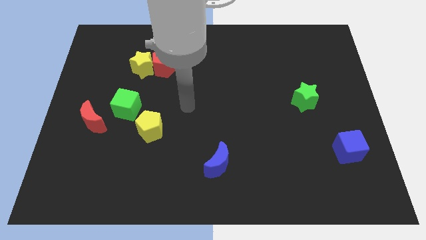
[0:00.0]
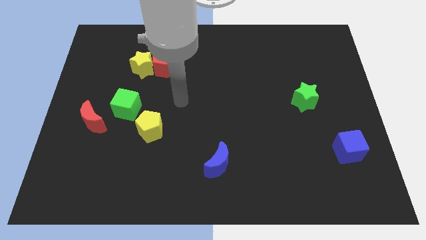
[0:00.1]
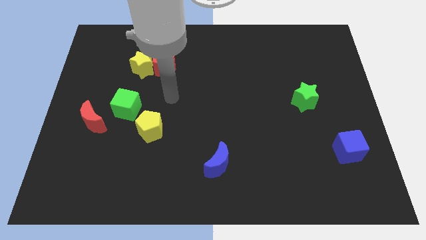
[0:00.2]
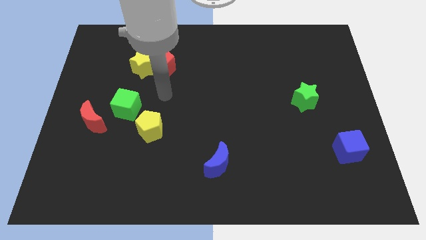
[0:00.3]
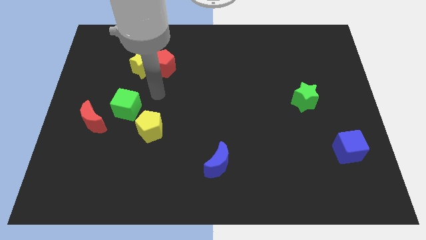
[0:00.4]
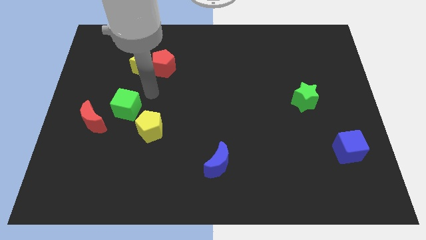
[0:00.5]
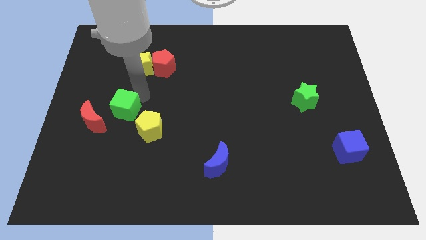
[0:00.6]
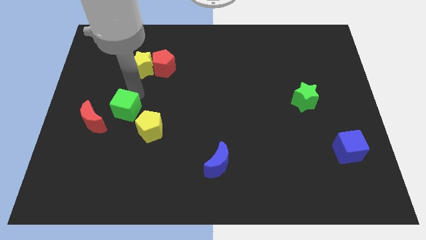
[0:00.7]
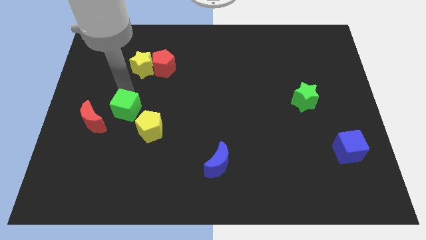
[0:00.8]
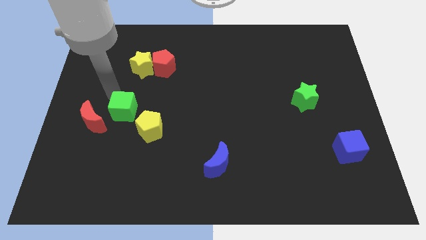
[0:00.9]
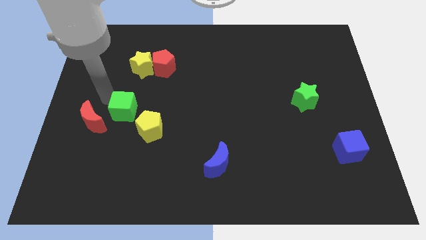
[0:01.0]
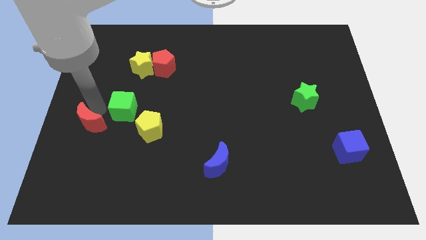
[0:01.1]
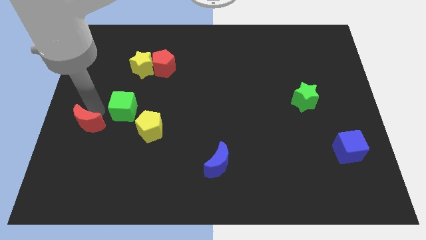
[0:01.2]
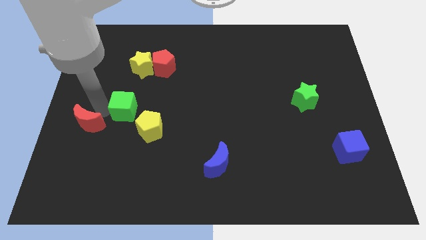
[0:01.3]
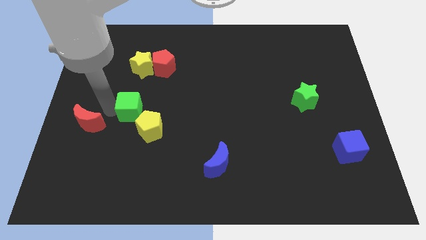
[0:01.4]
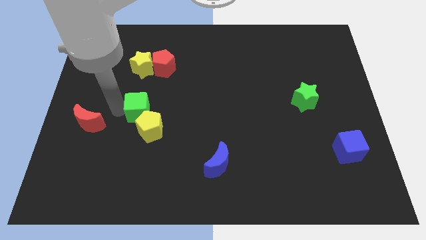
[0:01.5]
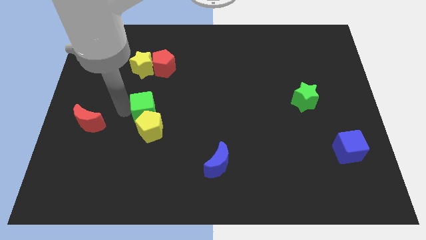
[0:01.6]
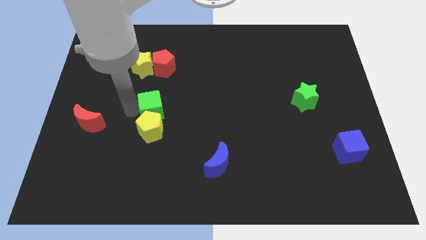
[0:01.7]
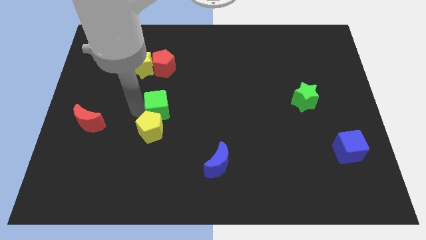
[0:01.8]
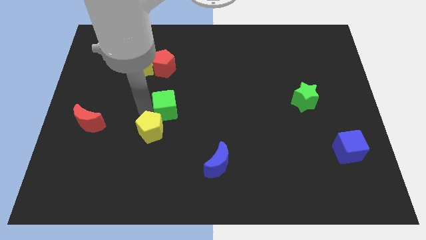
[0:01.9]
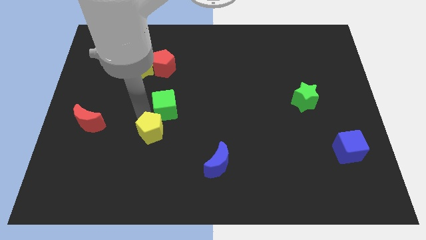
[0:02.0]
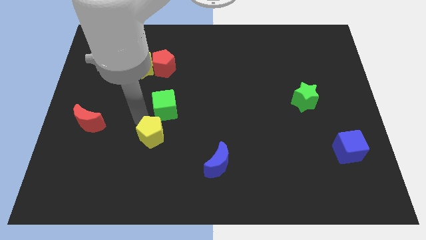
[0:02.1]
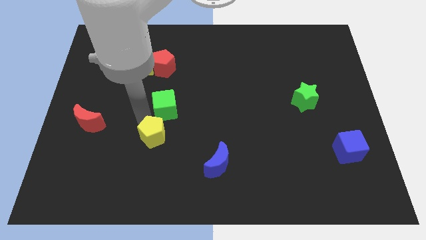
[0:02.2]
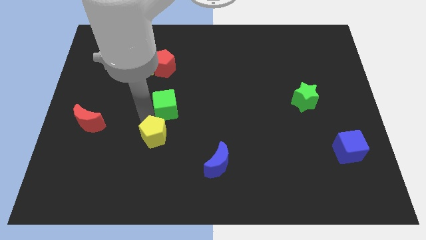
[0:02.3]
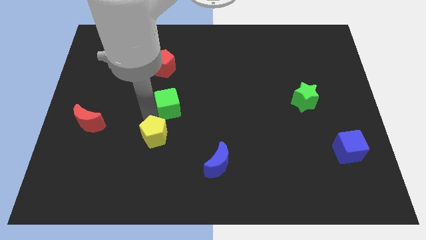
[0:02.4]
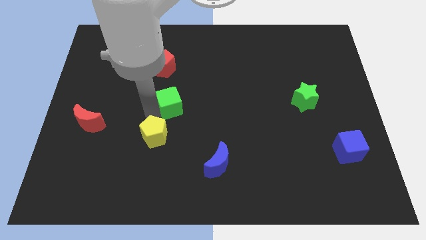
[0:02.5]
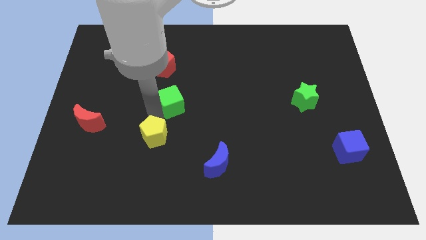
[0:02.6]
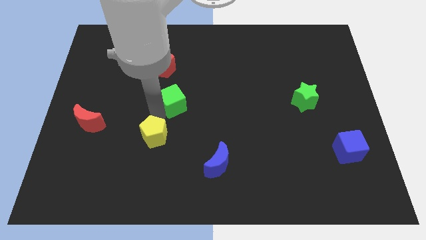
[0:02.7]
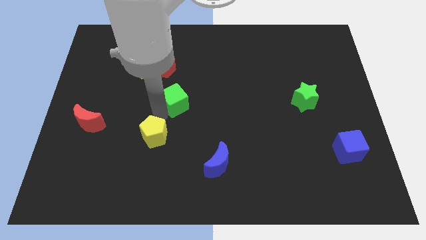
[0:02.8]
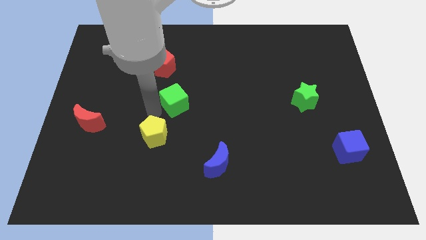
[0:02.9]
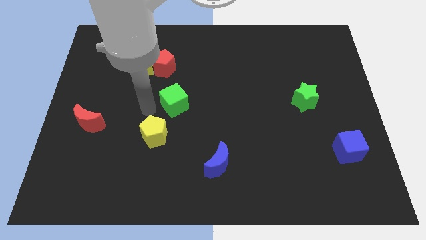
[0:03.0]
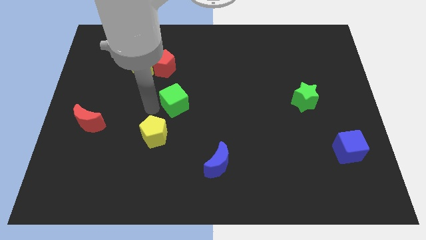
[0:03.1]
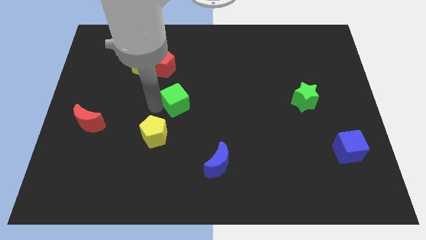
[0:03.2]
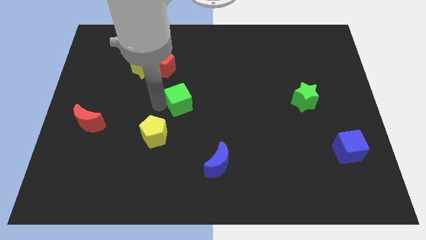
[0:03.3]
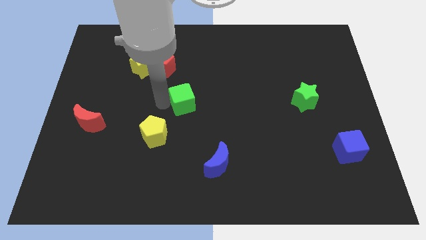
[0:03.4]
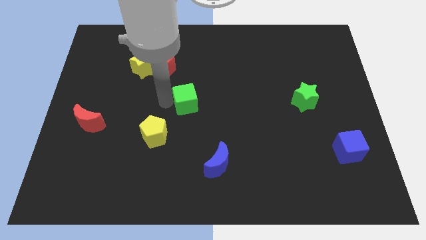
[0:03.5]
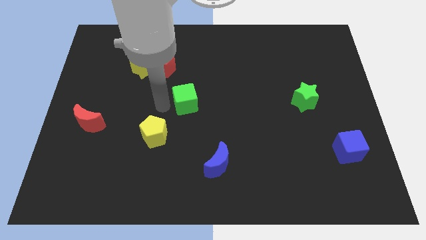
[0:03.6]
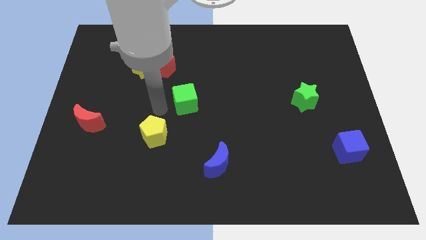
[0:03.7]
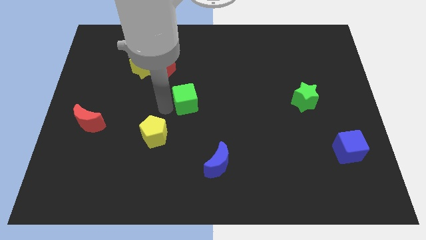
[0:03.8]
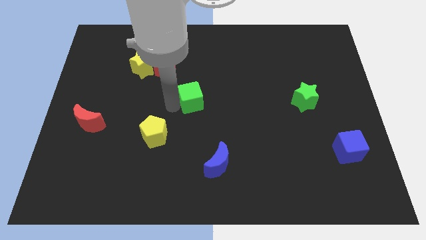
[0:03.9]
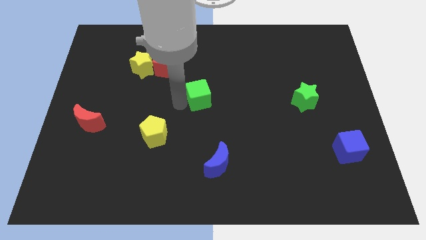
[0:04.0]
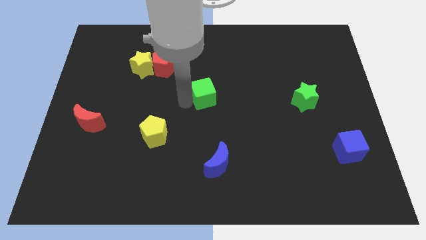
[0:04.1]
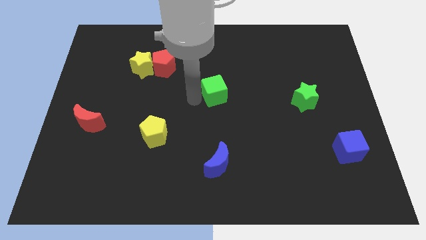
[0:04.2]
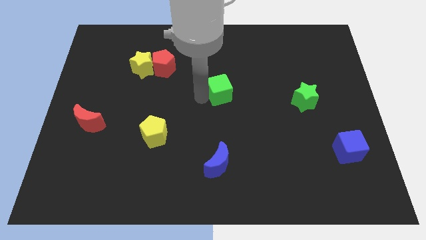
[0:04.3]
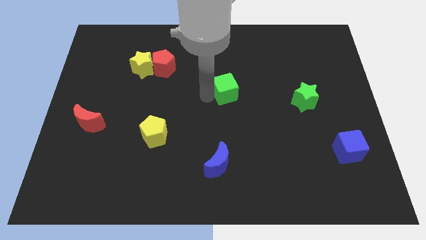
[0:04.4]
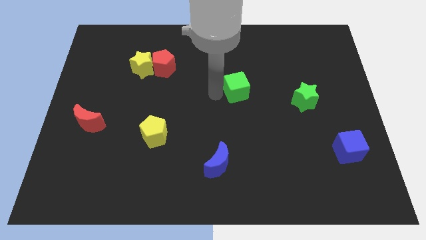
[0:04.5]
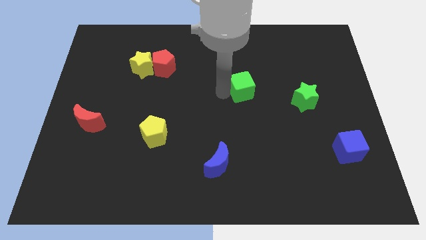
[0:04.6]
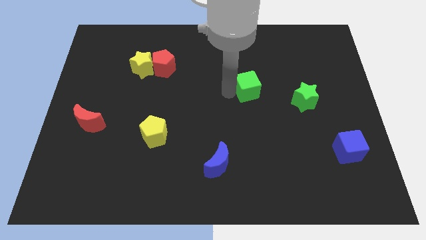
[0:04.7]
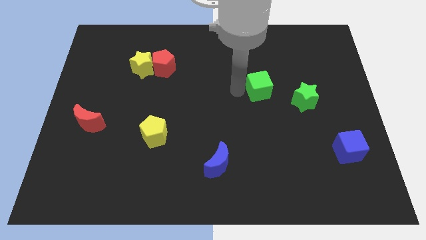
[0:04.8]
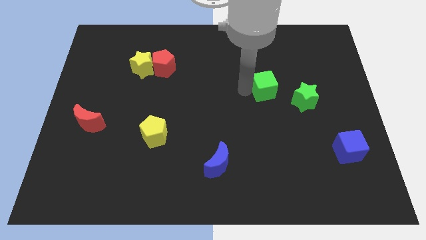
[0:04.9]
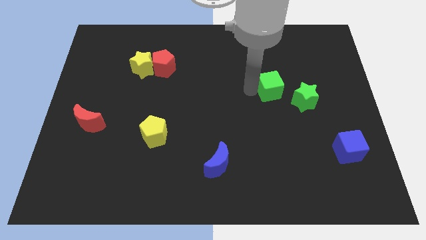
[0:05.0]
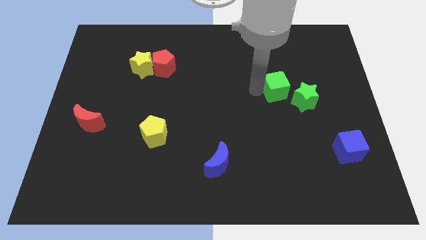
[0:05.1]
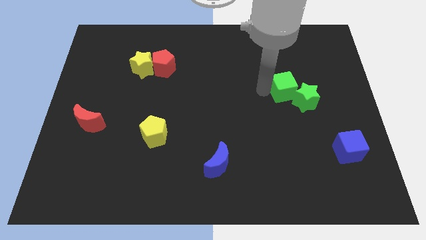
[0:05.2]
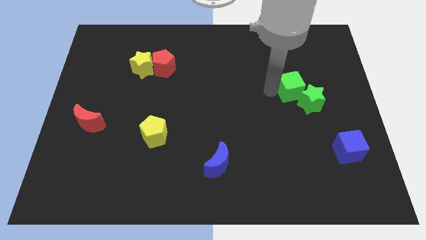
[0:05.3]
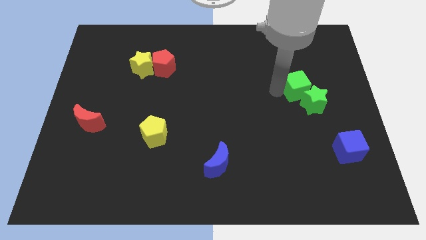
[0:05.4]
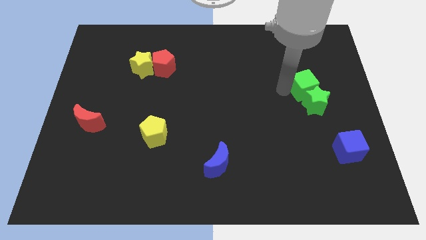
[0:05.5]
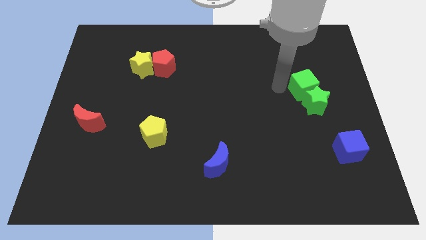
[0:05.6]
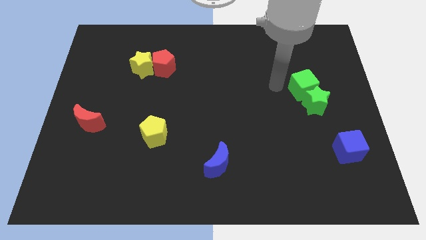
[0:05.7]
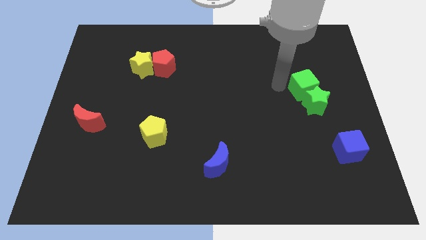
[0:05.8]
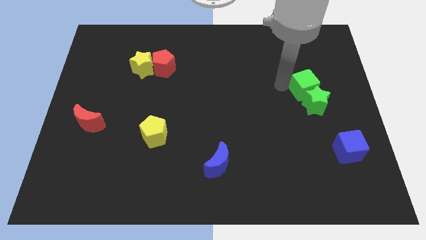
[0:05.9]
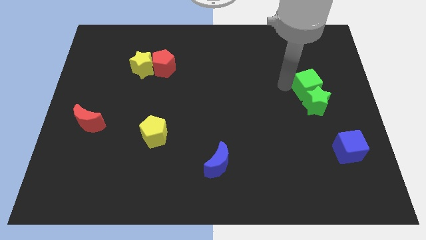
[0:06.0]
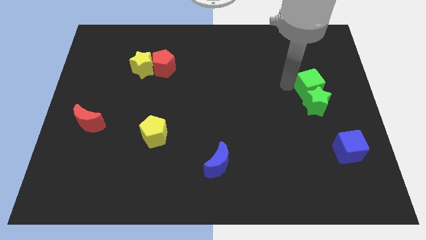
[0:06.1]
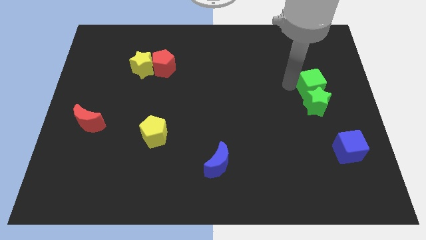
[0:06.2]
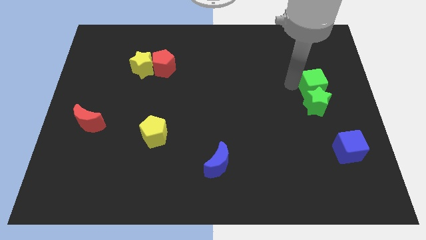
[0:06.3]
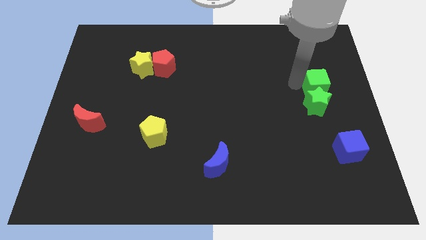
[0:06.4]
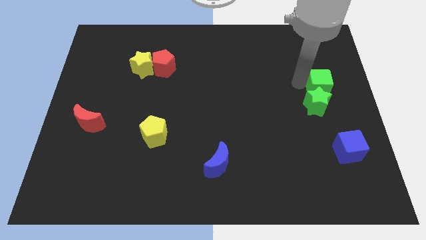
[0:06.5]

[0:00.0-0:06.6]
move the green cube to the right side
